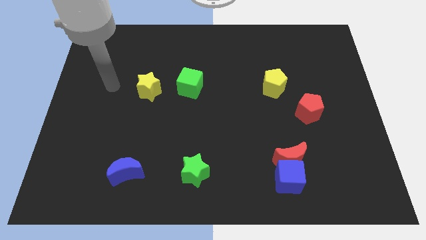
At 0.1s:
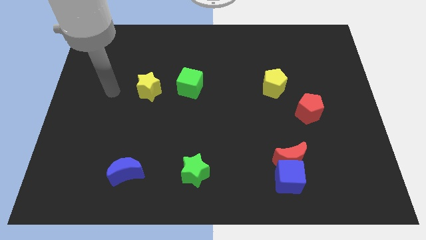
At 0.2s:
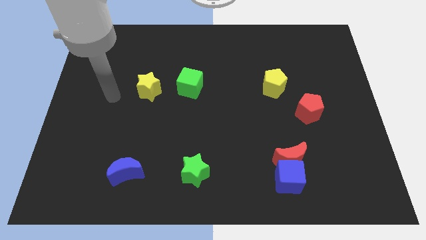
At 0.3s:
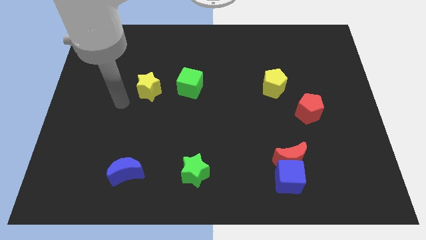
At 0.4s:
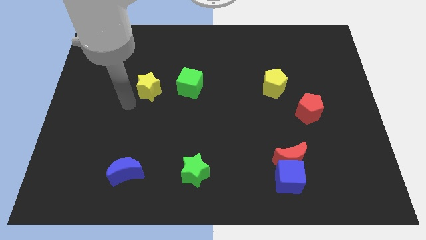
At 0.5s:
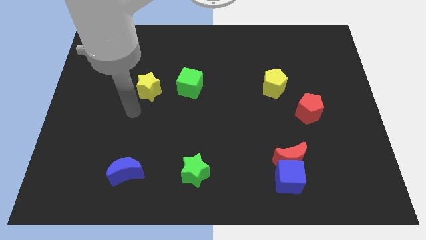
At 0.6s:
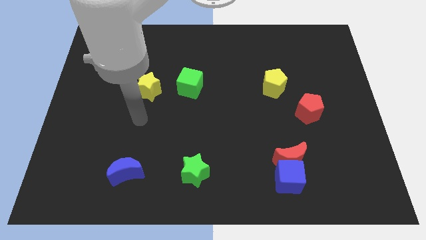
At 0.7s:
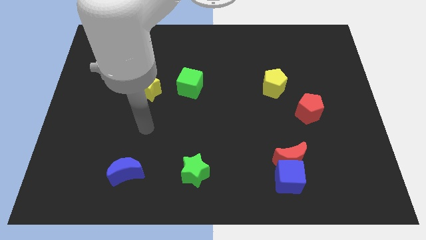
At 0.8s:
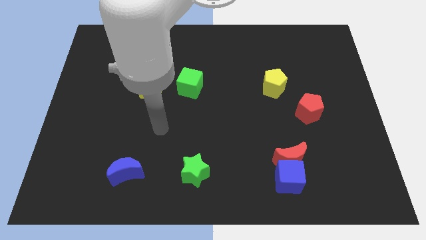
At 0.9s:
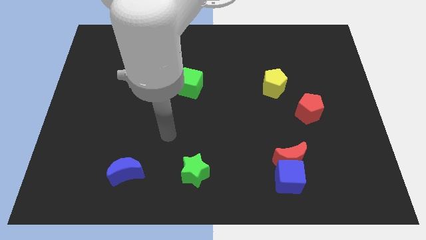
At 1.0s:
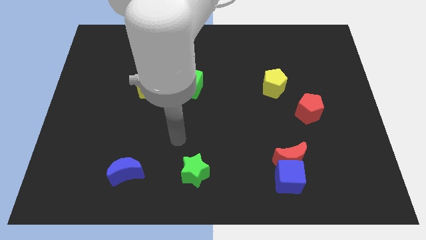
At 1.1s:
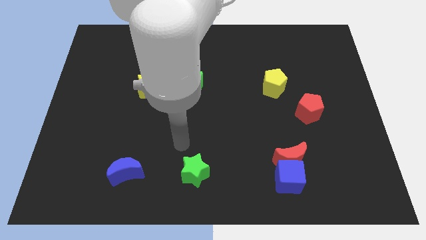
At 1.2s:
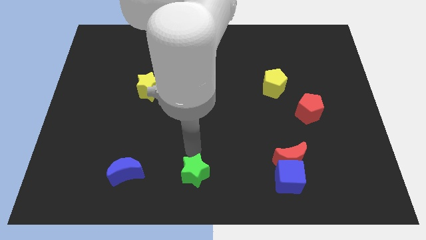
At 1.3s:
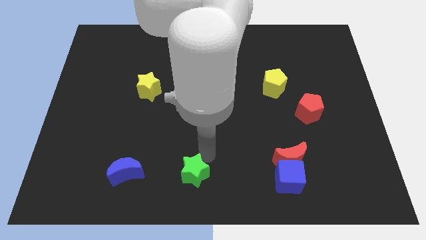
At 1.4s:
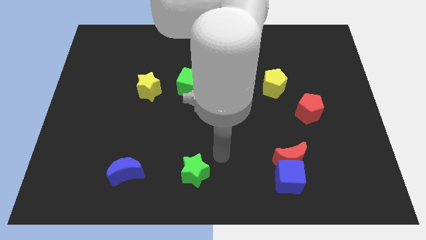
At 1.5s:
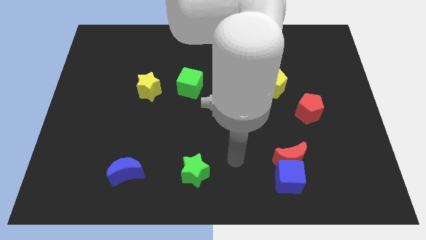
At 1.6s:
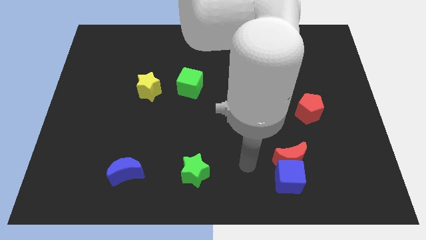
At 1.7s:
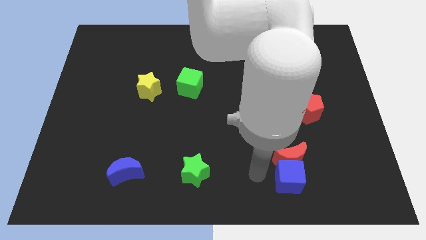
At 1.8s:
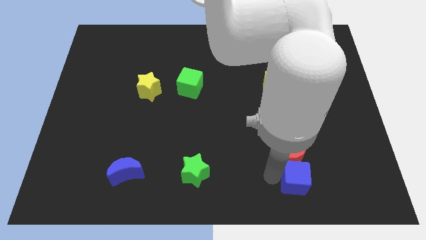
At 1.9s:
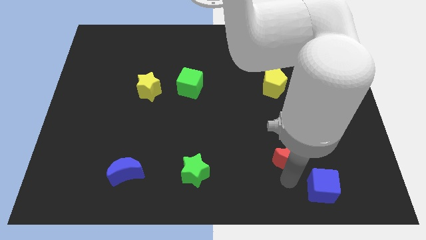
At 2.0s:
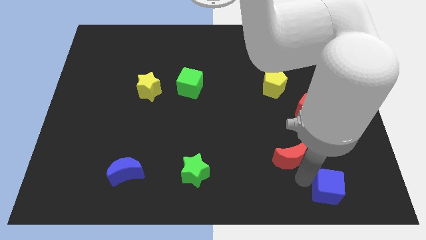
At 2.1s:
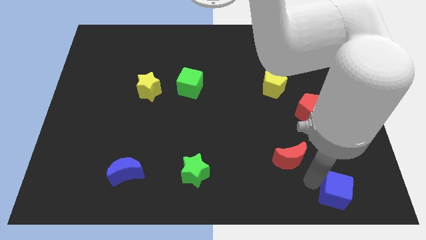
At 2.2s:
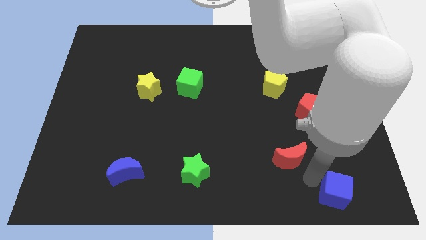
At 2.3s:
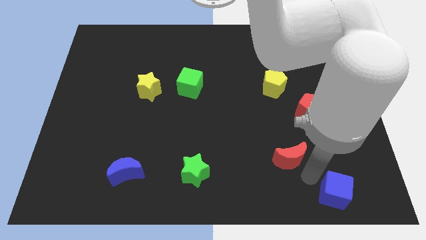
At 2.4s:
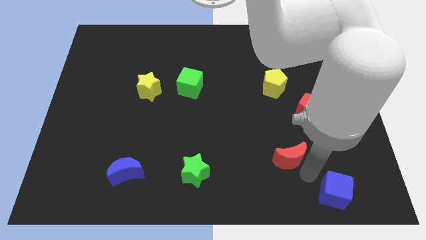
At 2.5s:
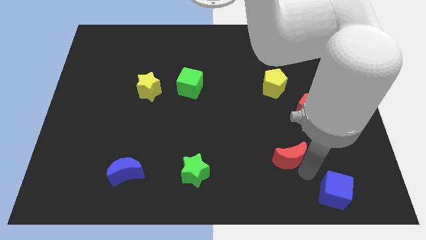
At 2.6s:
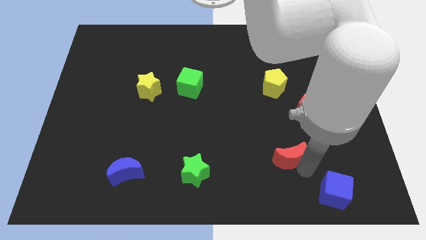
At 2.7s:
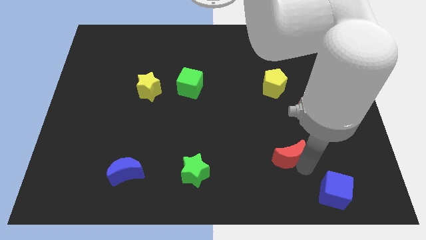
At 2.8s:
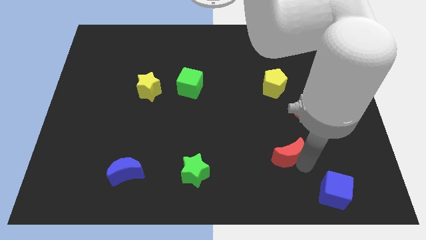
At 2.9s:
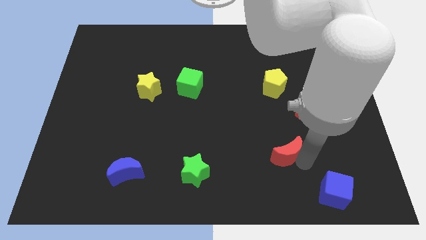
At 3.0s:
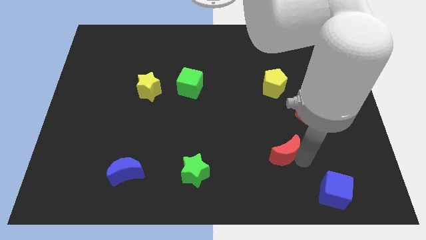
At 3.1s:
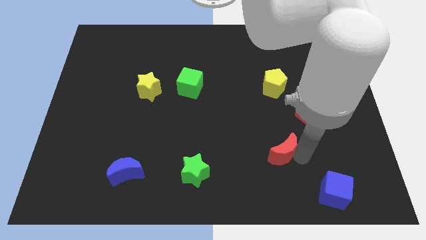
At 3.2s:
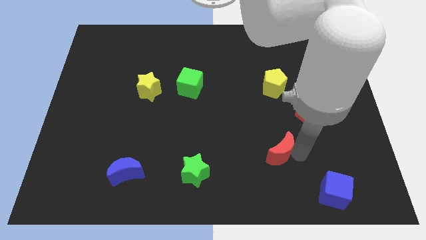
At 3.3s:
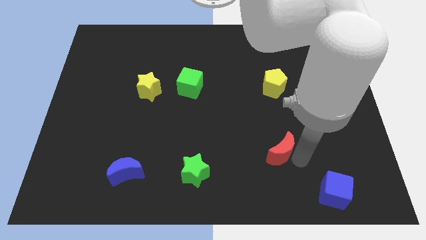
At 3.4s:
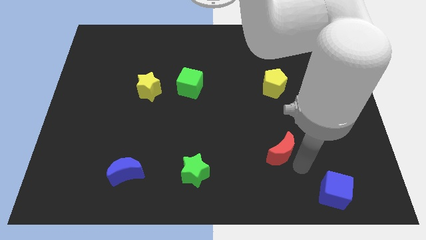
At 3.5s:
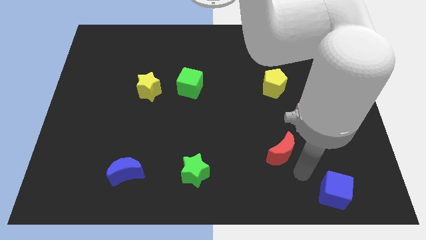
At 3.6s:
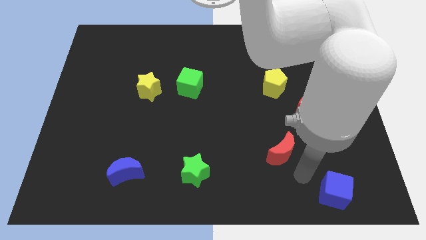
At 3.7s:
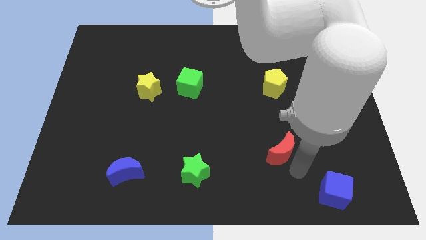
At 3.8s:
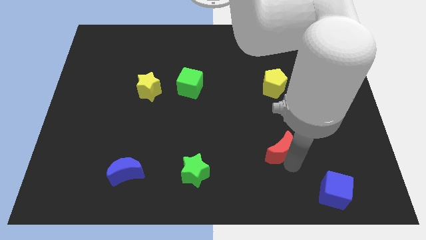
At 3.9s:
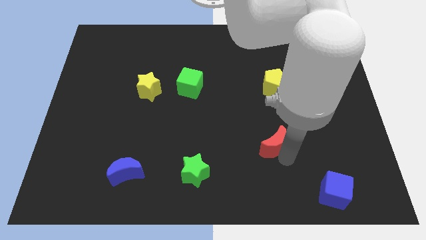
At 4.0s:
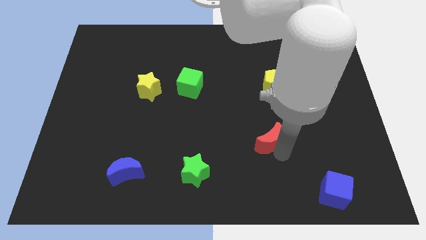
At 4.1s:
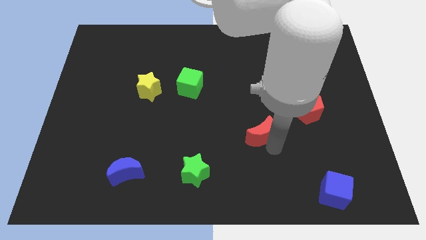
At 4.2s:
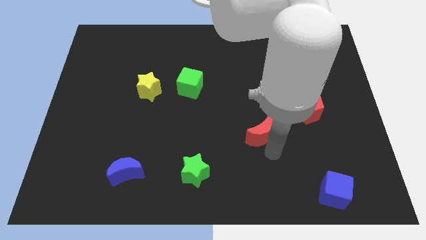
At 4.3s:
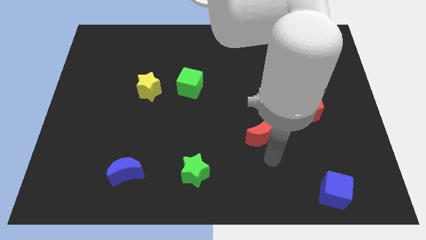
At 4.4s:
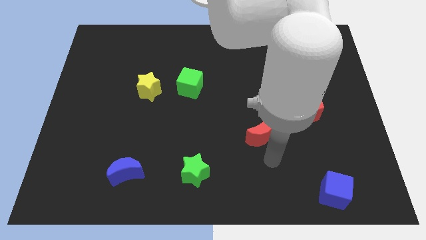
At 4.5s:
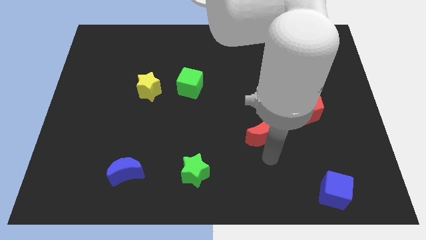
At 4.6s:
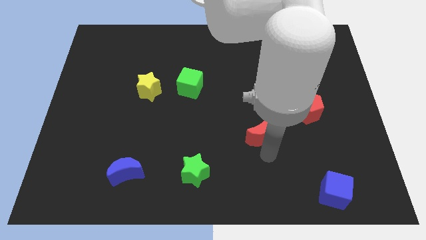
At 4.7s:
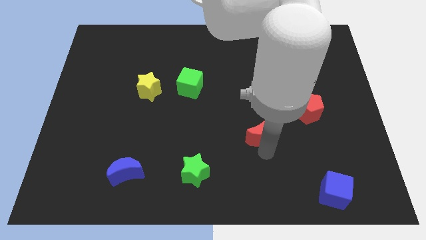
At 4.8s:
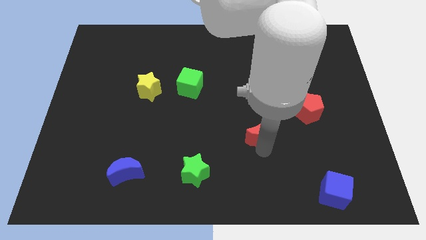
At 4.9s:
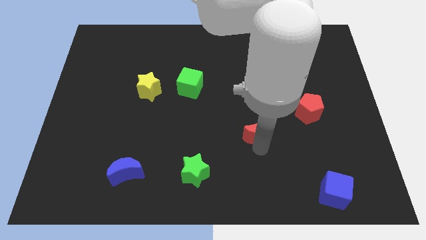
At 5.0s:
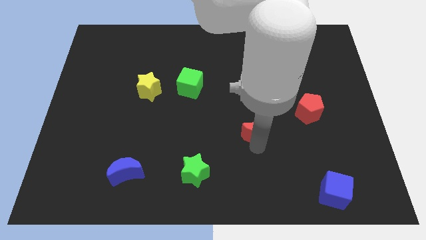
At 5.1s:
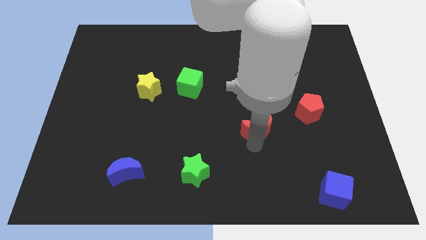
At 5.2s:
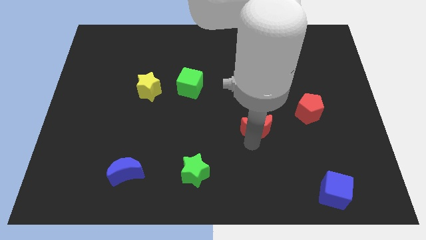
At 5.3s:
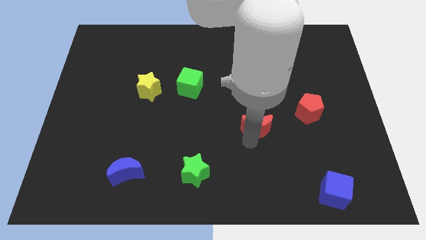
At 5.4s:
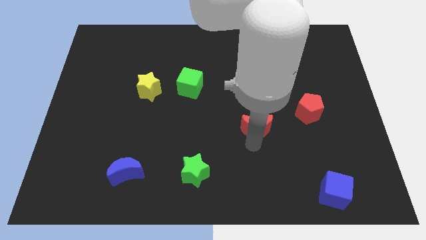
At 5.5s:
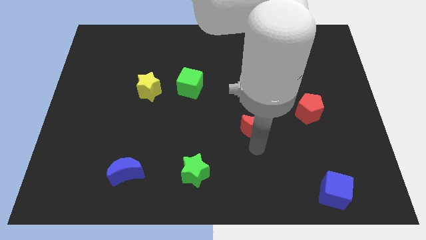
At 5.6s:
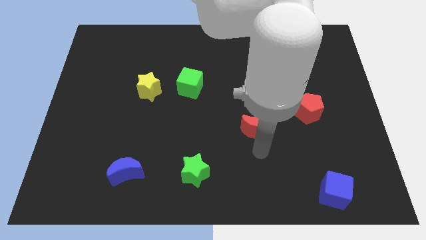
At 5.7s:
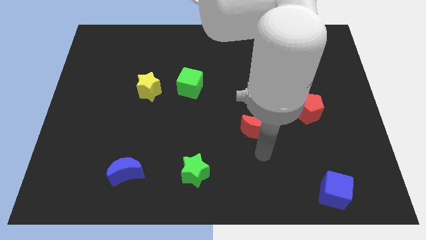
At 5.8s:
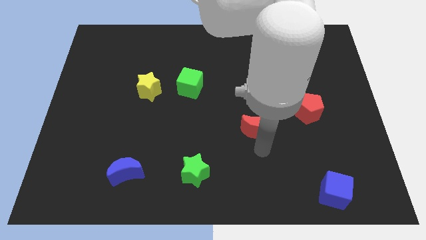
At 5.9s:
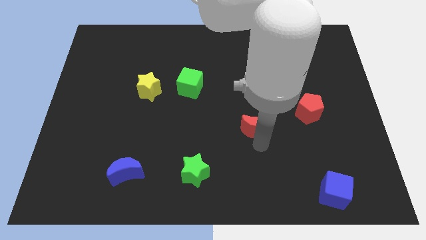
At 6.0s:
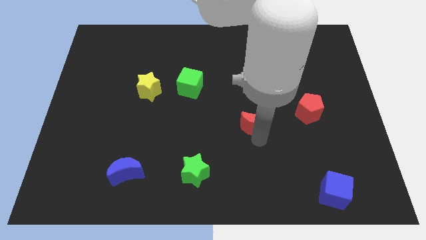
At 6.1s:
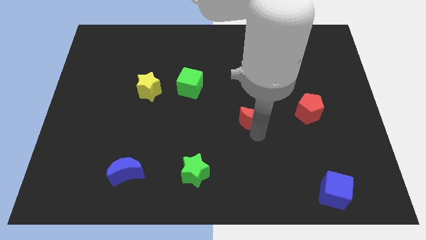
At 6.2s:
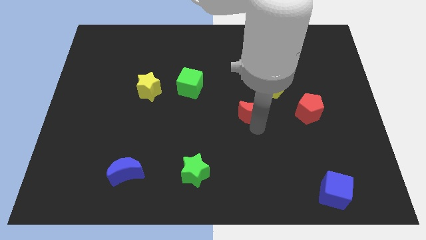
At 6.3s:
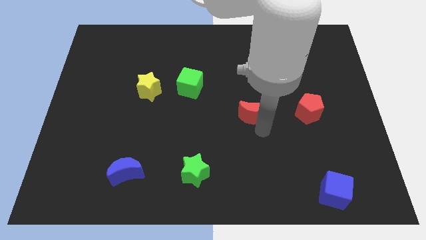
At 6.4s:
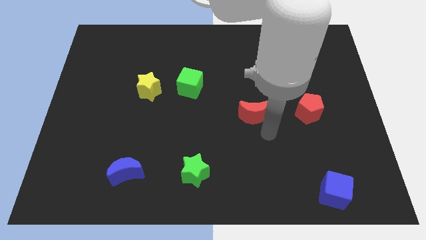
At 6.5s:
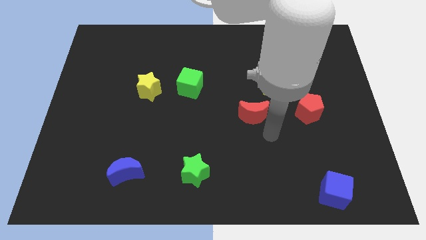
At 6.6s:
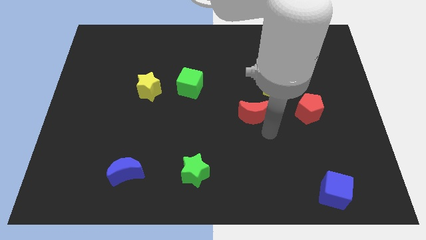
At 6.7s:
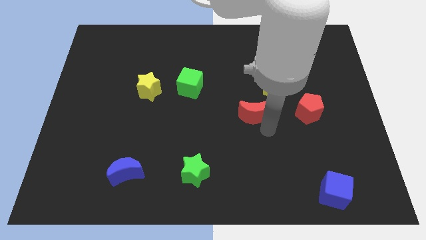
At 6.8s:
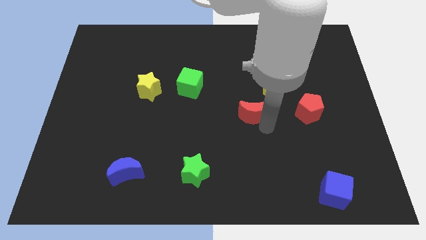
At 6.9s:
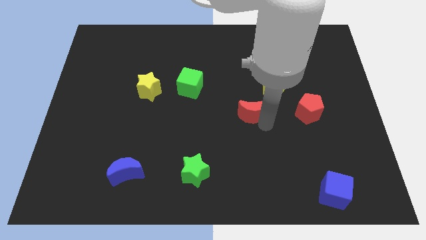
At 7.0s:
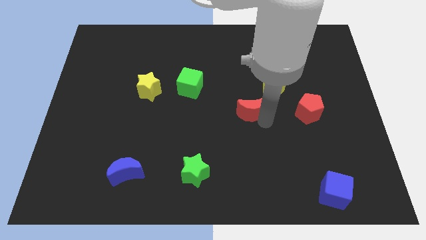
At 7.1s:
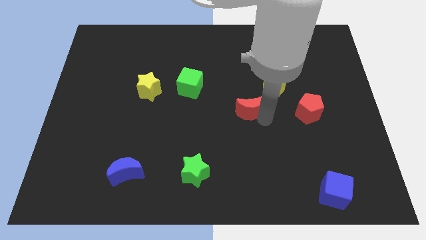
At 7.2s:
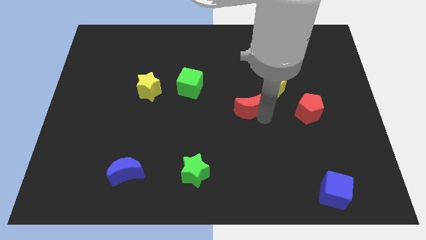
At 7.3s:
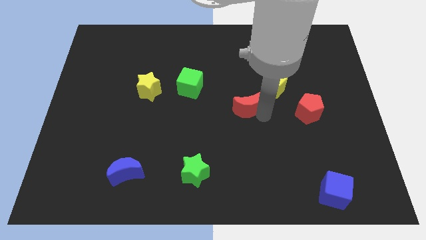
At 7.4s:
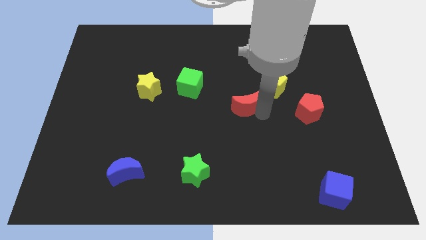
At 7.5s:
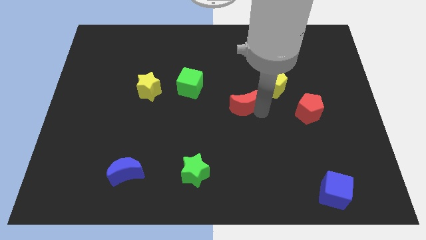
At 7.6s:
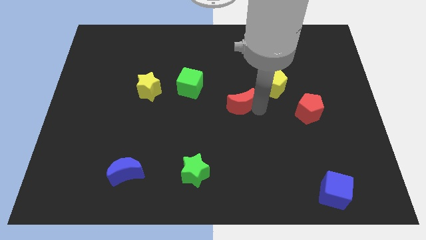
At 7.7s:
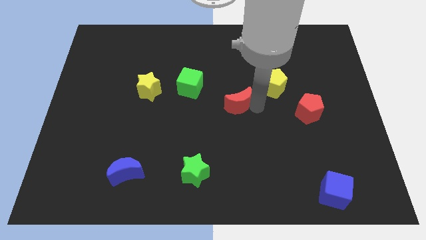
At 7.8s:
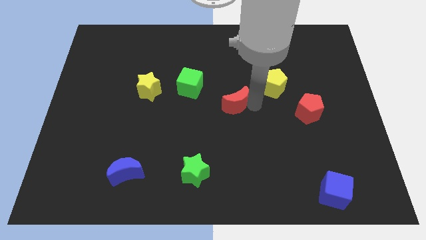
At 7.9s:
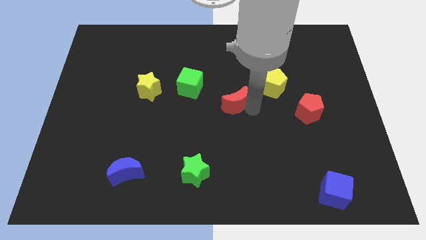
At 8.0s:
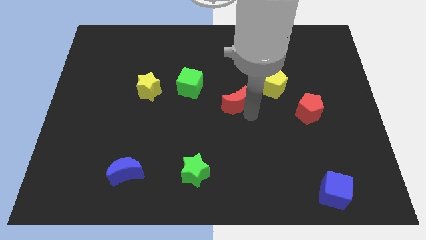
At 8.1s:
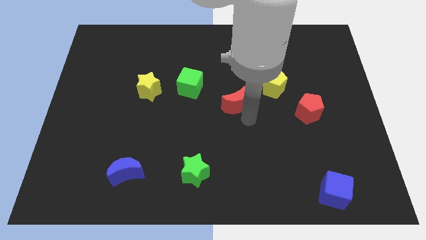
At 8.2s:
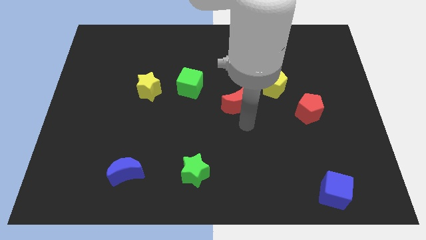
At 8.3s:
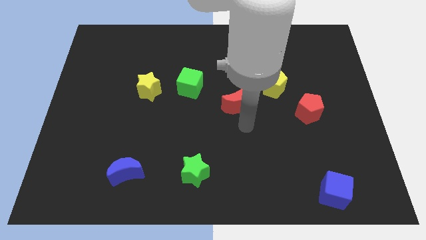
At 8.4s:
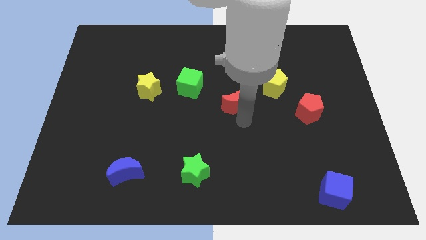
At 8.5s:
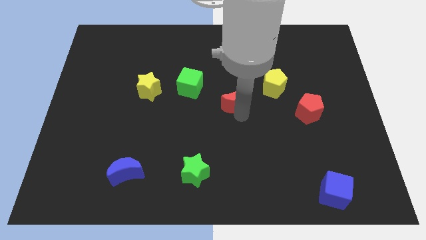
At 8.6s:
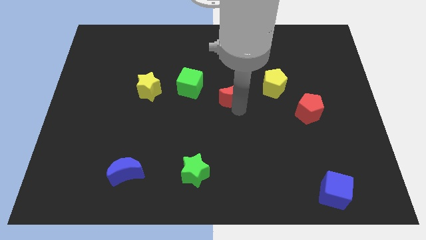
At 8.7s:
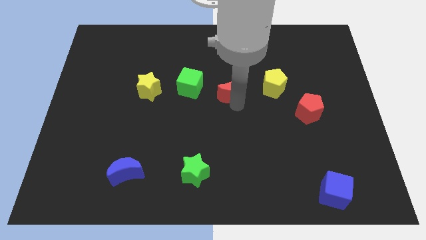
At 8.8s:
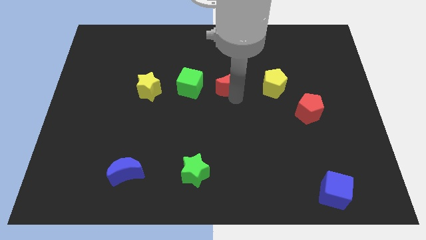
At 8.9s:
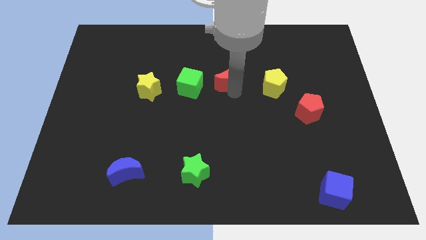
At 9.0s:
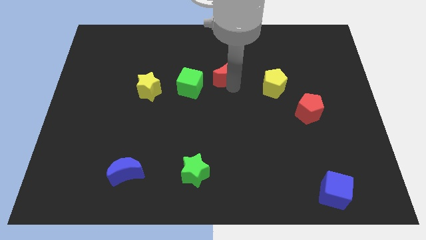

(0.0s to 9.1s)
put the red moon to the top right of the green cube
